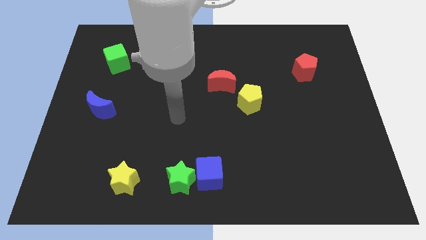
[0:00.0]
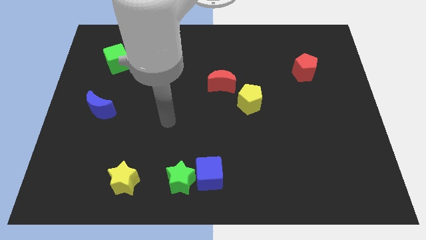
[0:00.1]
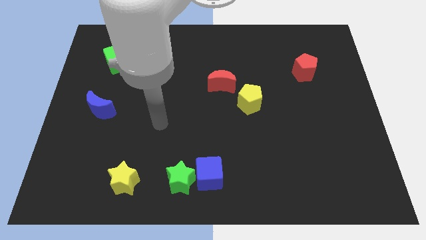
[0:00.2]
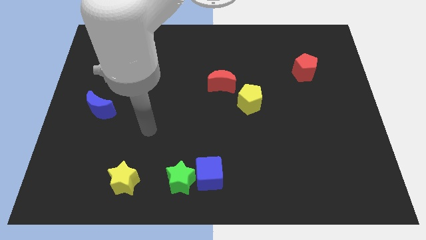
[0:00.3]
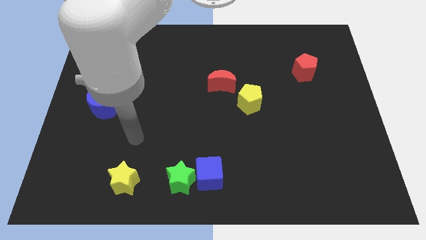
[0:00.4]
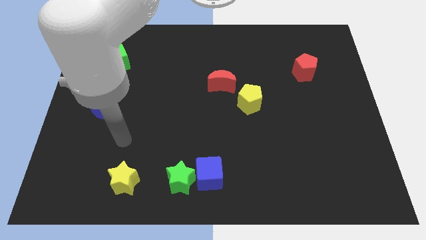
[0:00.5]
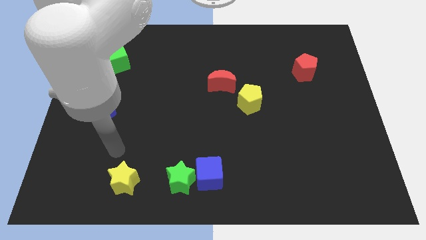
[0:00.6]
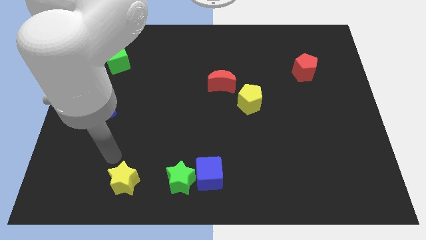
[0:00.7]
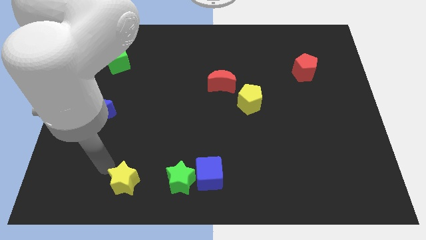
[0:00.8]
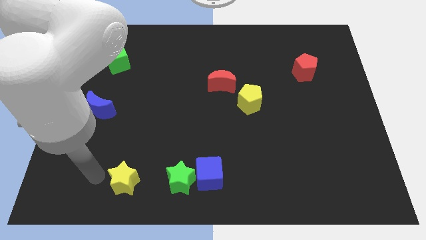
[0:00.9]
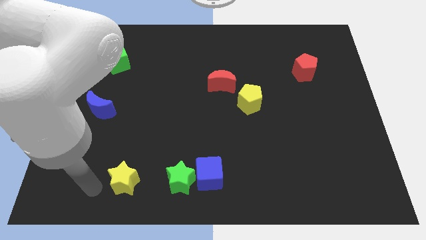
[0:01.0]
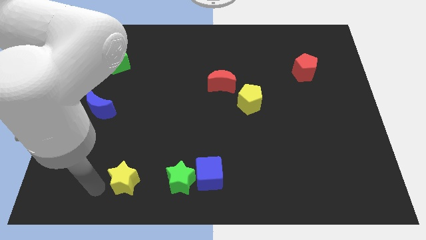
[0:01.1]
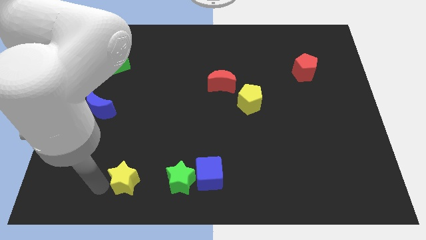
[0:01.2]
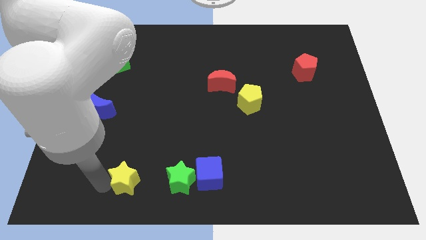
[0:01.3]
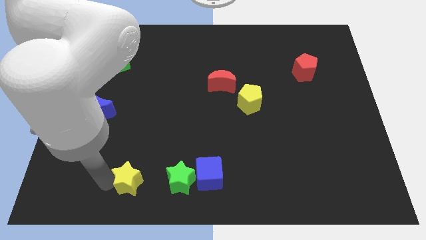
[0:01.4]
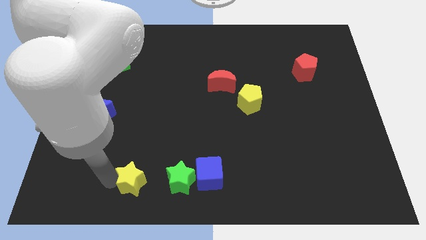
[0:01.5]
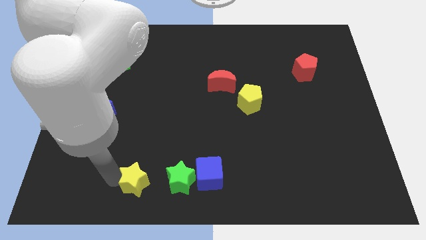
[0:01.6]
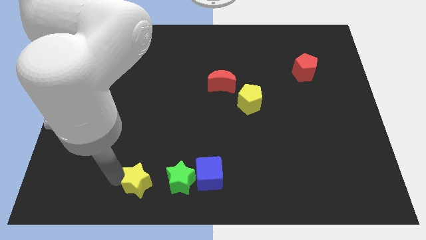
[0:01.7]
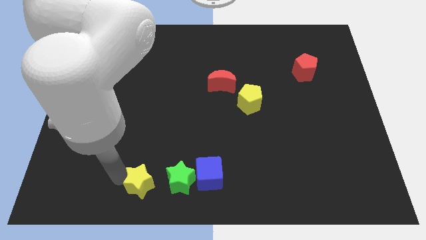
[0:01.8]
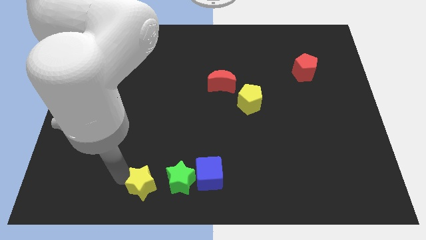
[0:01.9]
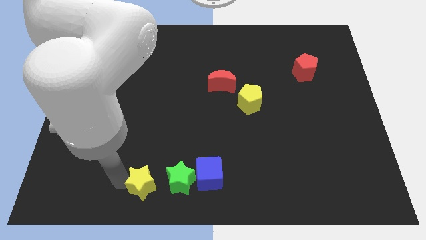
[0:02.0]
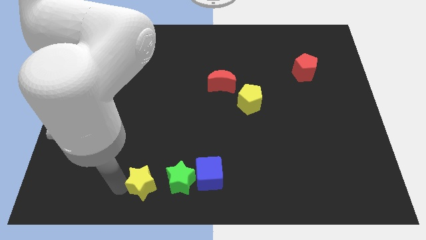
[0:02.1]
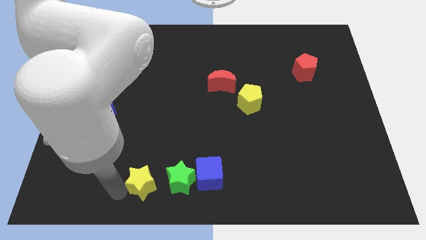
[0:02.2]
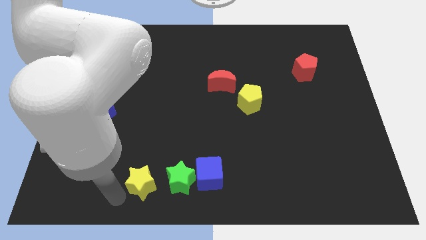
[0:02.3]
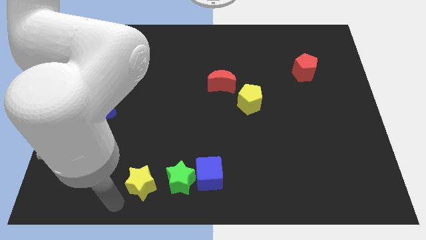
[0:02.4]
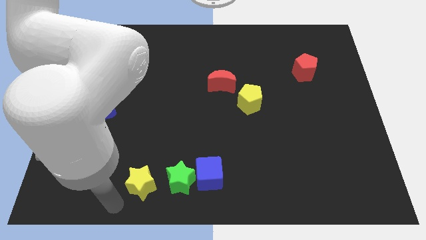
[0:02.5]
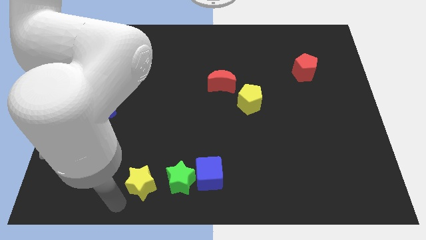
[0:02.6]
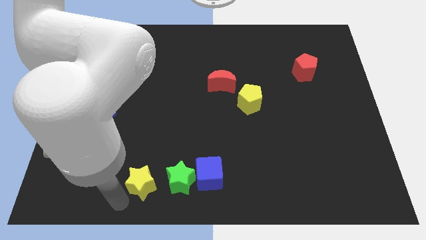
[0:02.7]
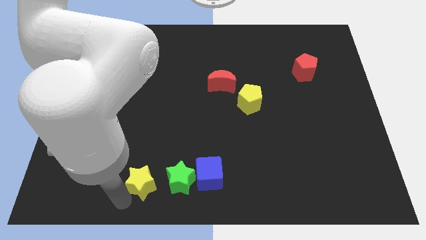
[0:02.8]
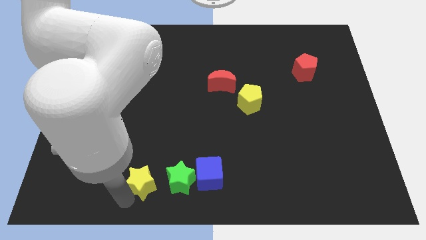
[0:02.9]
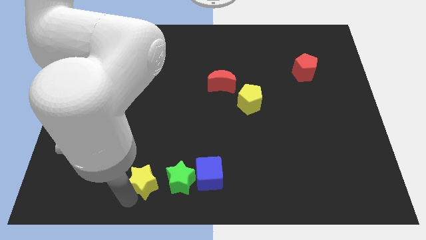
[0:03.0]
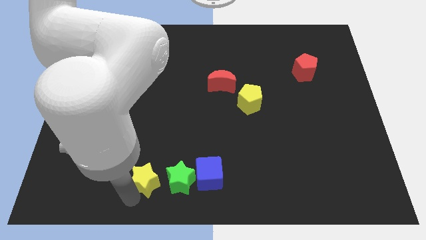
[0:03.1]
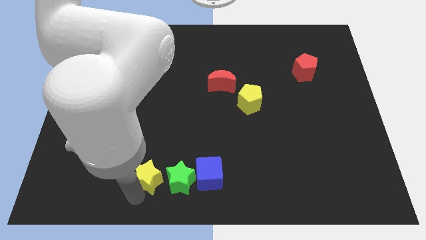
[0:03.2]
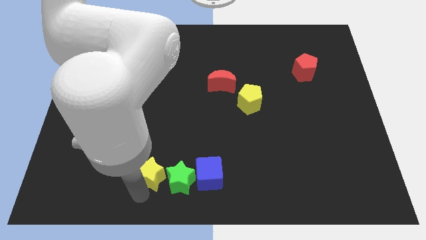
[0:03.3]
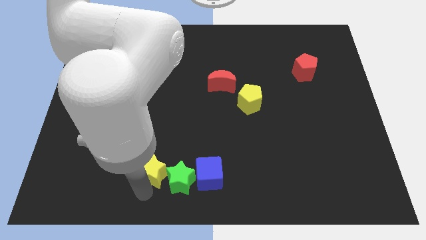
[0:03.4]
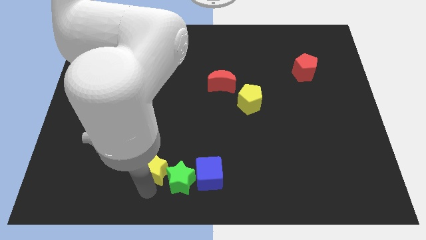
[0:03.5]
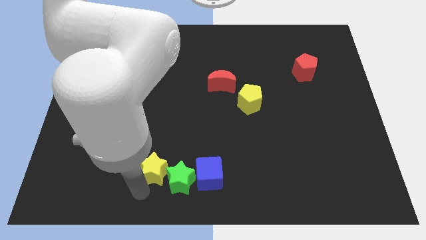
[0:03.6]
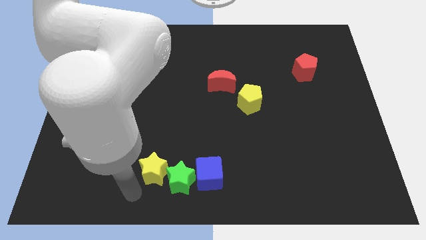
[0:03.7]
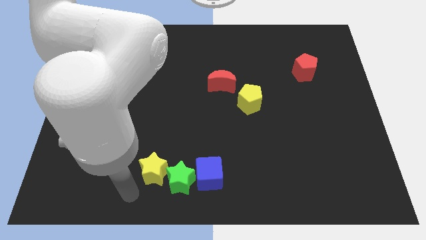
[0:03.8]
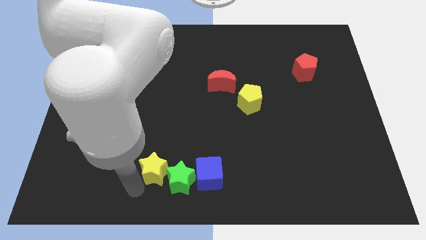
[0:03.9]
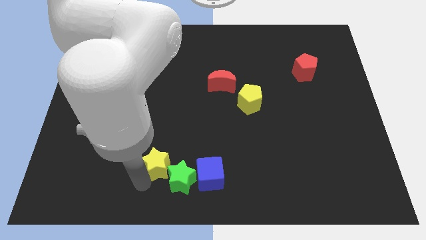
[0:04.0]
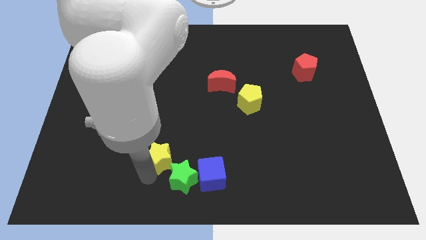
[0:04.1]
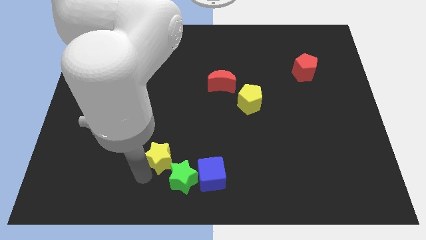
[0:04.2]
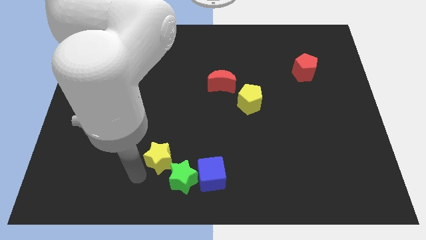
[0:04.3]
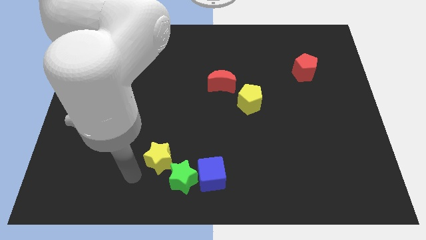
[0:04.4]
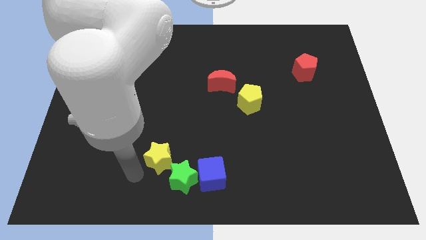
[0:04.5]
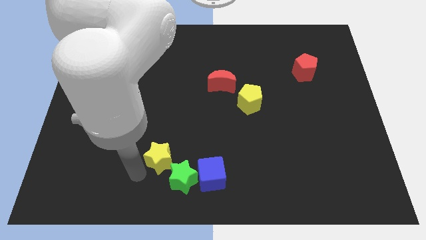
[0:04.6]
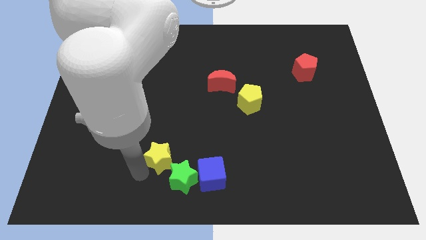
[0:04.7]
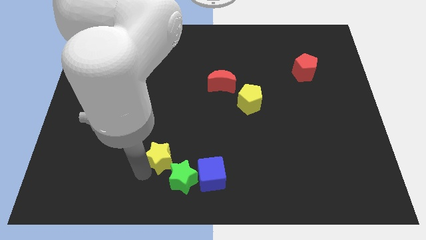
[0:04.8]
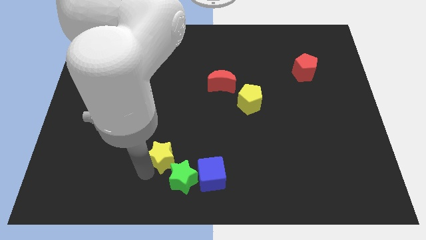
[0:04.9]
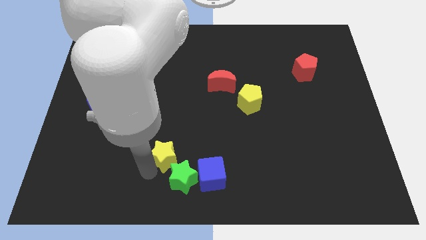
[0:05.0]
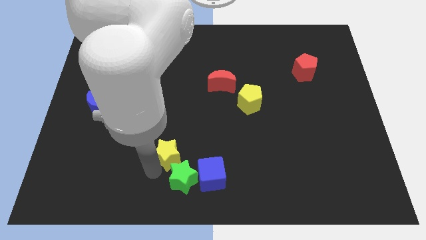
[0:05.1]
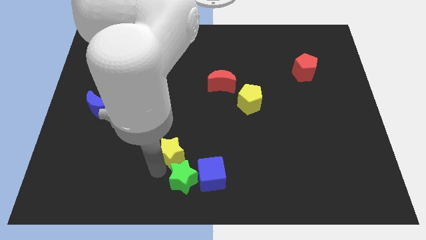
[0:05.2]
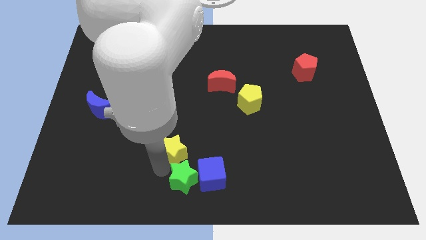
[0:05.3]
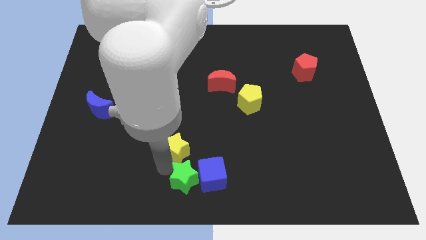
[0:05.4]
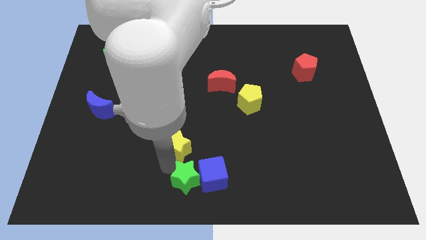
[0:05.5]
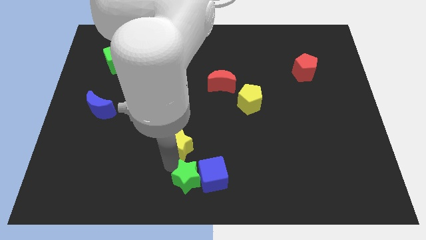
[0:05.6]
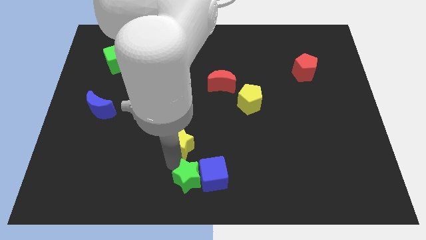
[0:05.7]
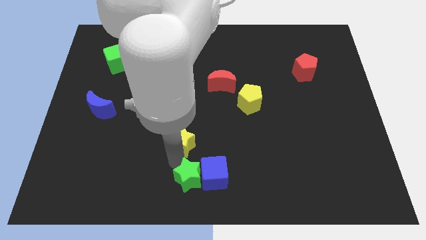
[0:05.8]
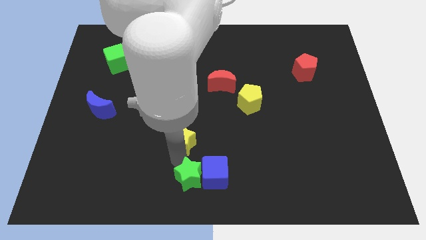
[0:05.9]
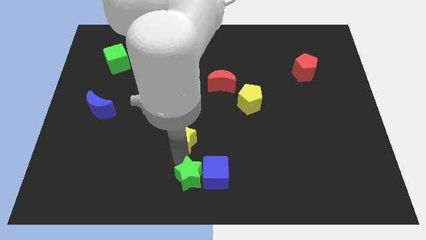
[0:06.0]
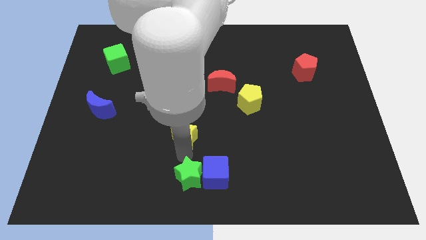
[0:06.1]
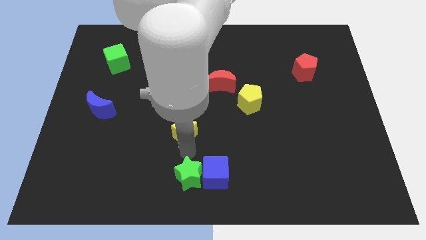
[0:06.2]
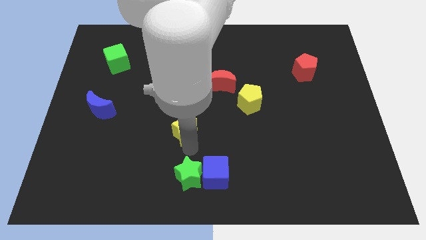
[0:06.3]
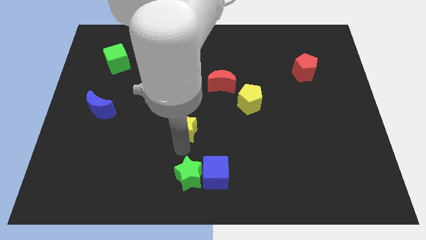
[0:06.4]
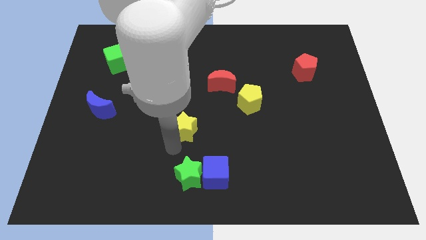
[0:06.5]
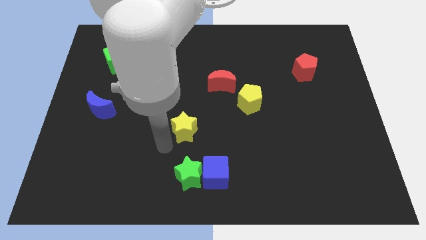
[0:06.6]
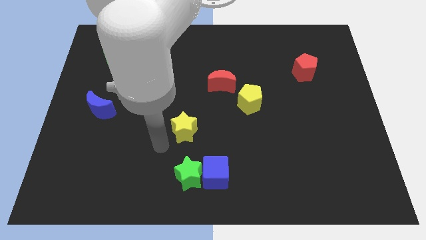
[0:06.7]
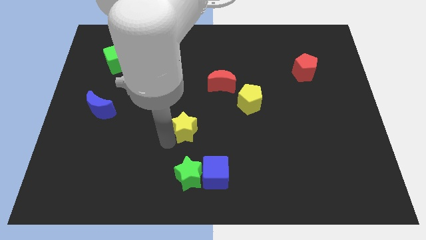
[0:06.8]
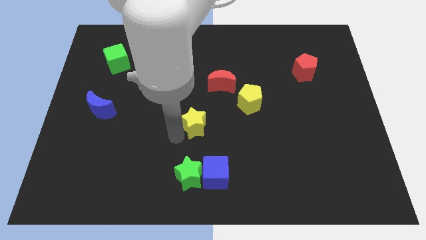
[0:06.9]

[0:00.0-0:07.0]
push the yellow star up and right

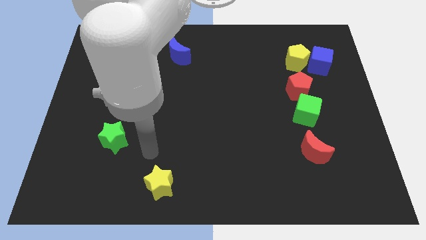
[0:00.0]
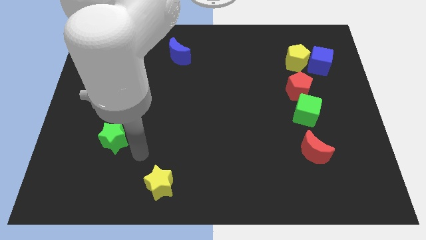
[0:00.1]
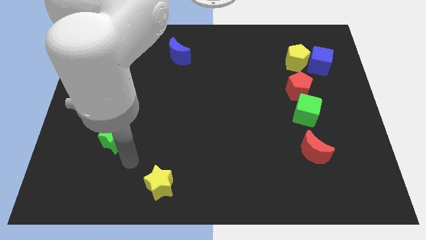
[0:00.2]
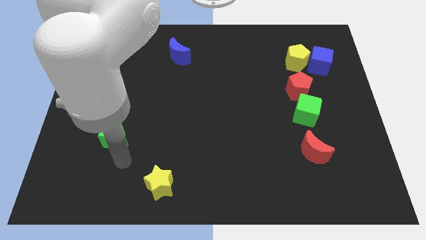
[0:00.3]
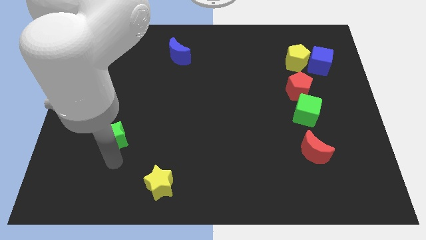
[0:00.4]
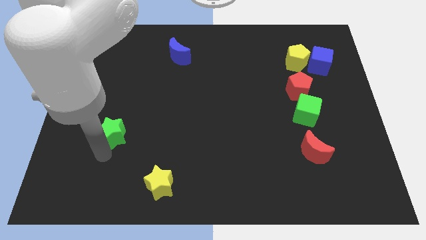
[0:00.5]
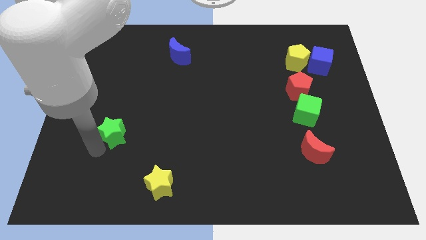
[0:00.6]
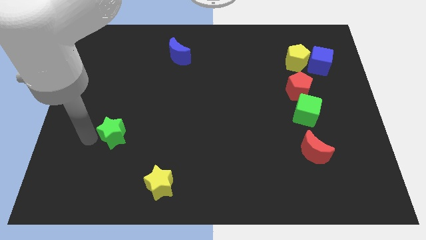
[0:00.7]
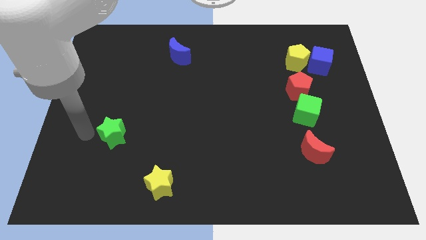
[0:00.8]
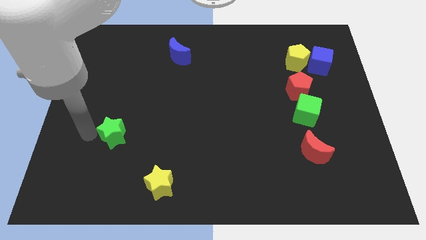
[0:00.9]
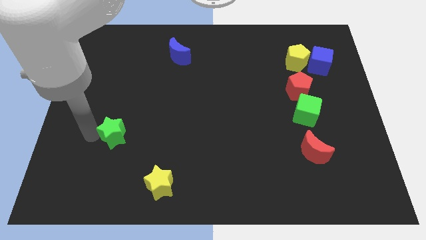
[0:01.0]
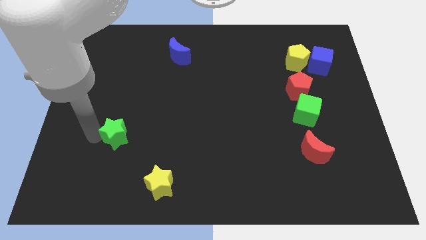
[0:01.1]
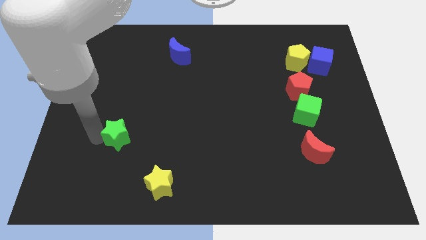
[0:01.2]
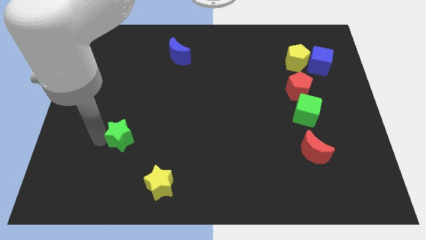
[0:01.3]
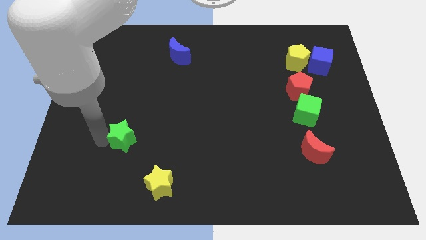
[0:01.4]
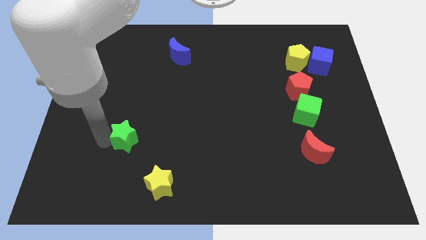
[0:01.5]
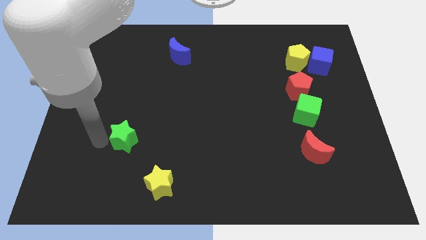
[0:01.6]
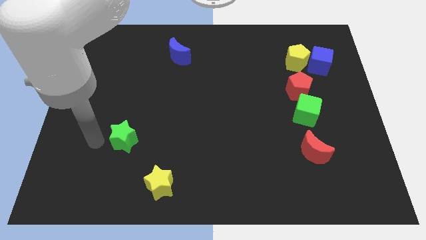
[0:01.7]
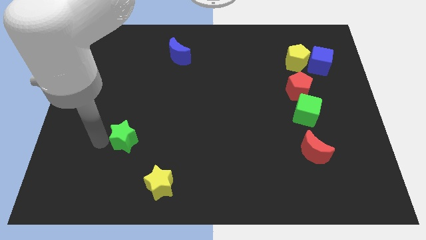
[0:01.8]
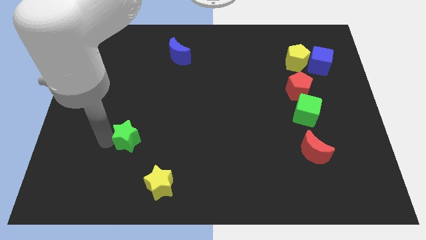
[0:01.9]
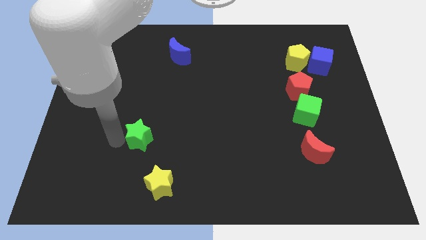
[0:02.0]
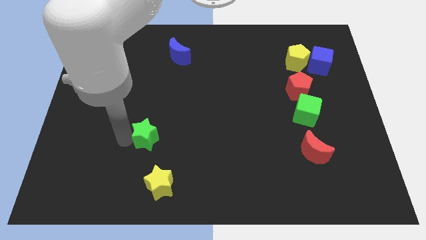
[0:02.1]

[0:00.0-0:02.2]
move the green star to the right a little bit
